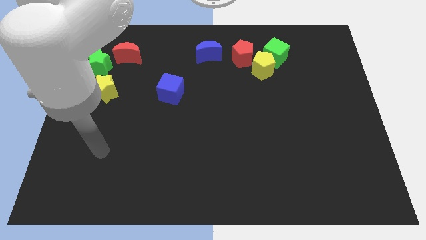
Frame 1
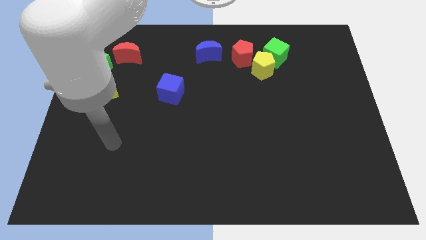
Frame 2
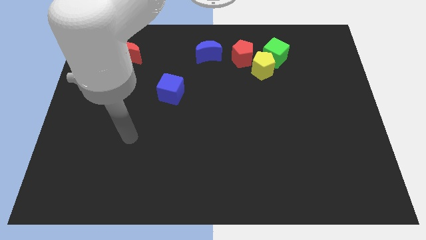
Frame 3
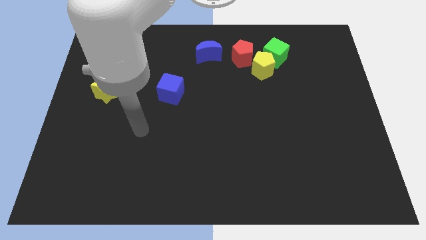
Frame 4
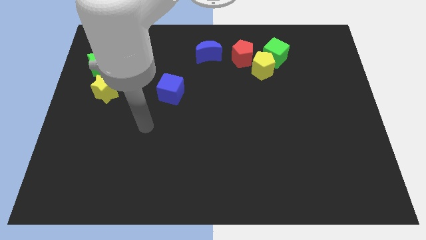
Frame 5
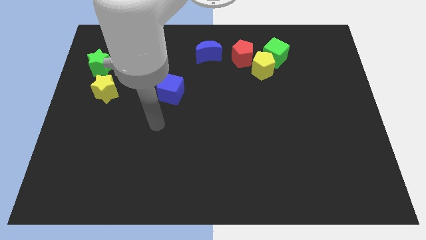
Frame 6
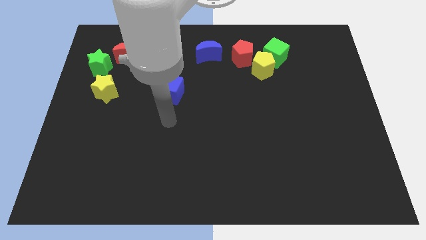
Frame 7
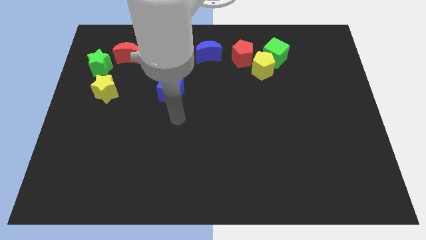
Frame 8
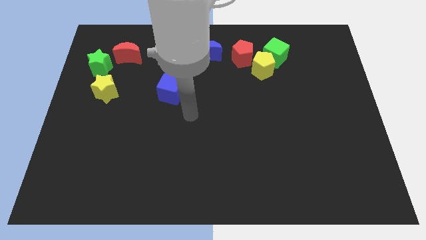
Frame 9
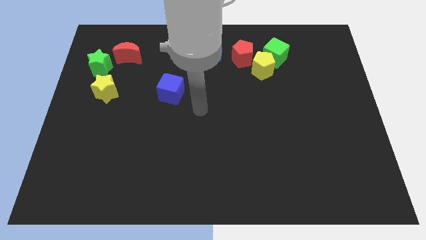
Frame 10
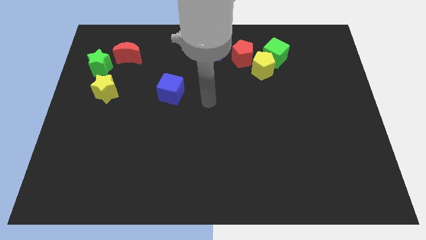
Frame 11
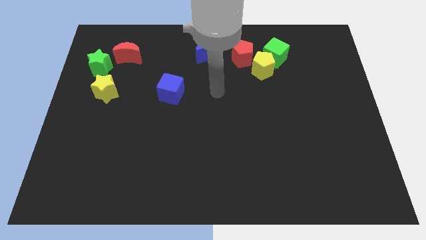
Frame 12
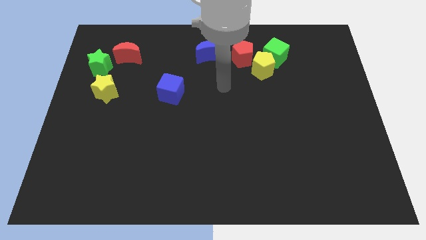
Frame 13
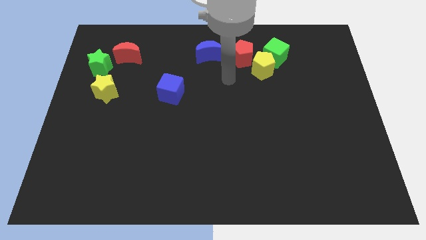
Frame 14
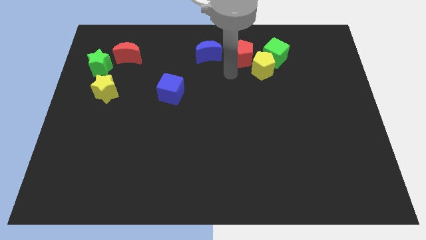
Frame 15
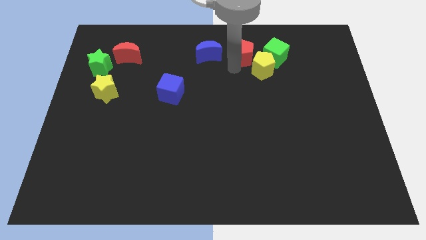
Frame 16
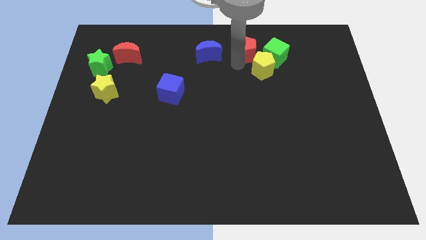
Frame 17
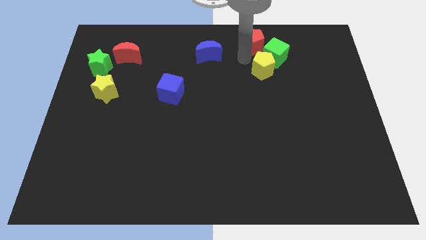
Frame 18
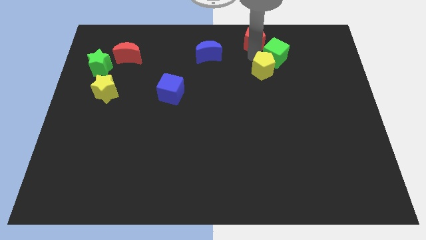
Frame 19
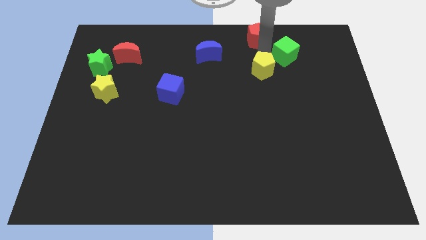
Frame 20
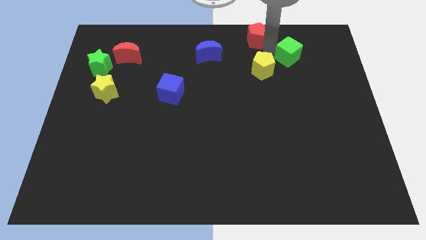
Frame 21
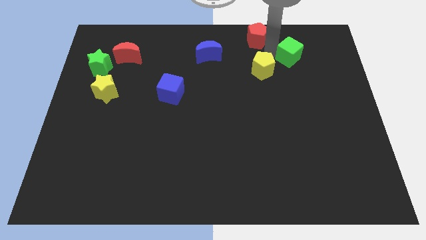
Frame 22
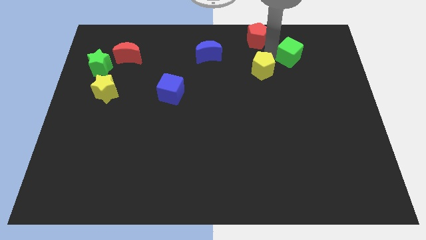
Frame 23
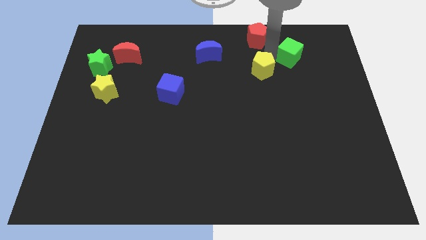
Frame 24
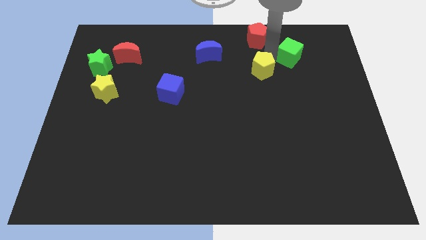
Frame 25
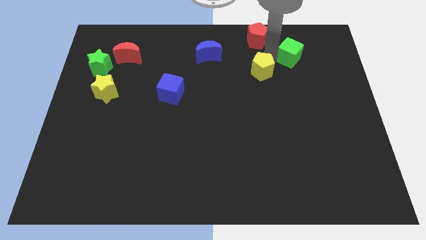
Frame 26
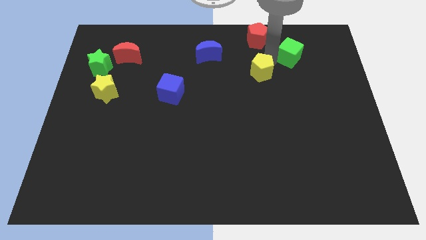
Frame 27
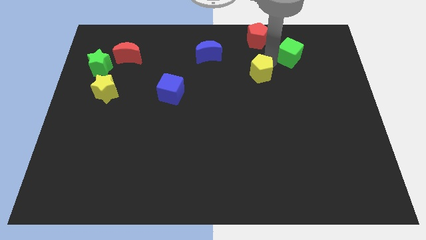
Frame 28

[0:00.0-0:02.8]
pull the yellow pentagon apart from the green cube and red pentagon

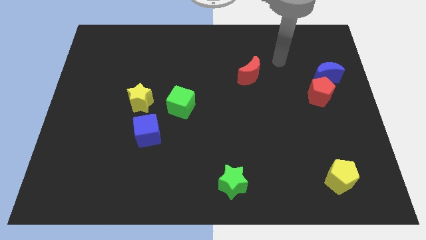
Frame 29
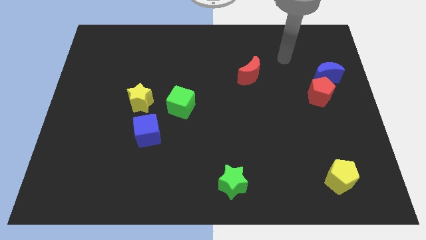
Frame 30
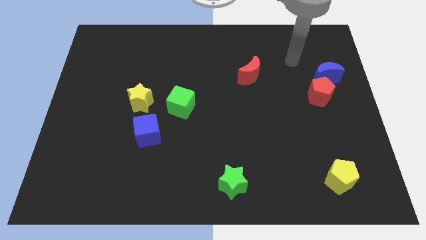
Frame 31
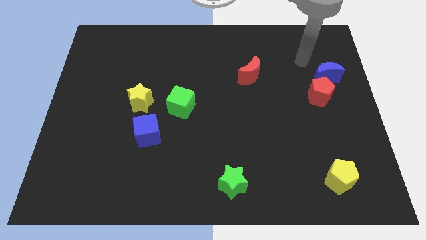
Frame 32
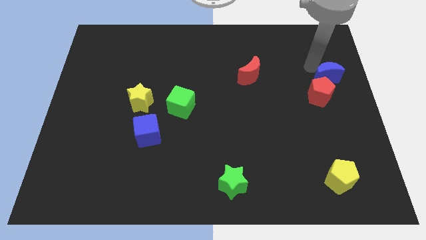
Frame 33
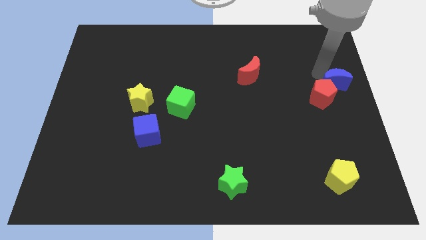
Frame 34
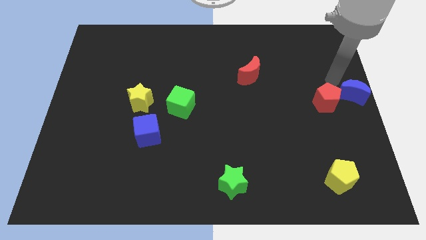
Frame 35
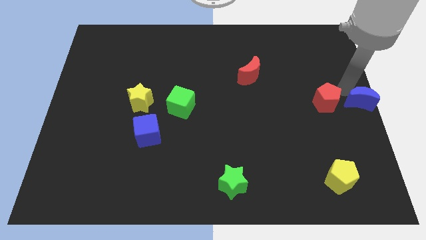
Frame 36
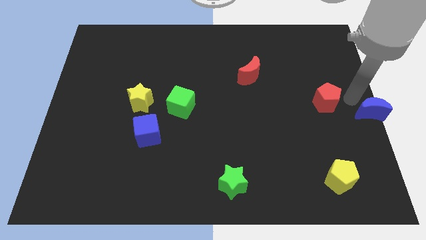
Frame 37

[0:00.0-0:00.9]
pull the red pentagon apart from the blue moon

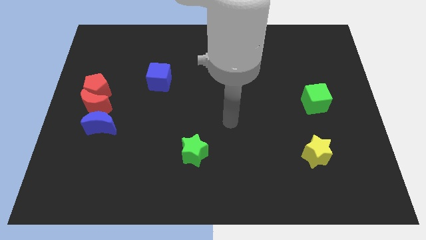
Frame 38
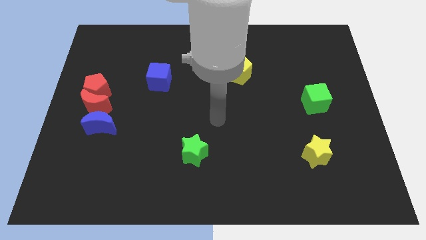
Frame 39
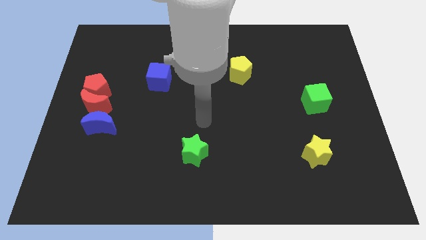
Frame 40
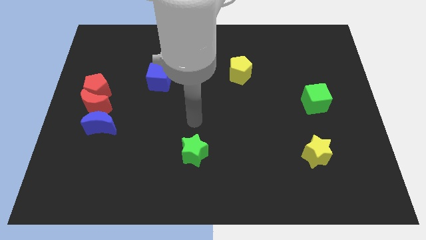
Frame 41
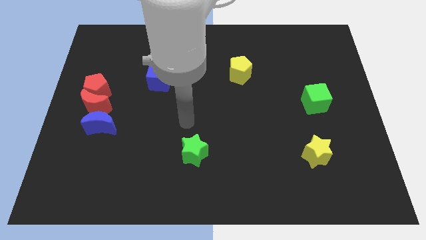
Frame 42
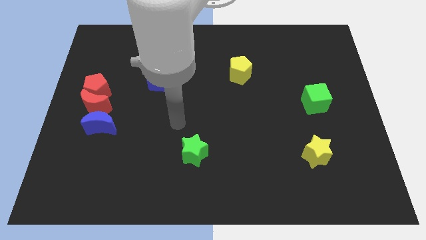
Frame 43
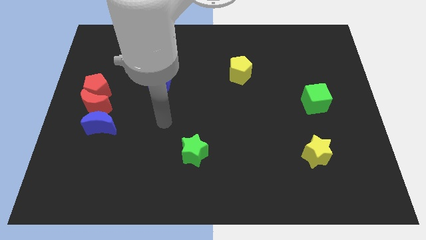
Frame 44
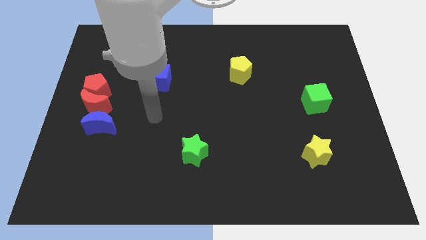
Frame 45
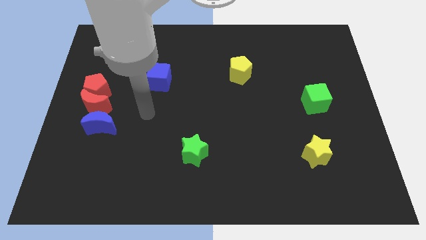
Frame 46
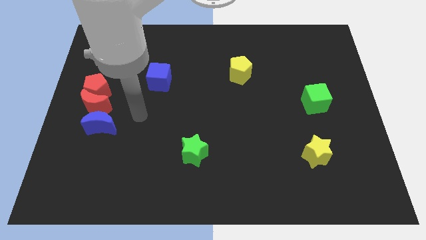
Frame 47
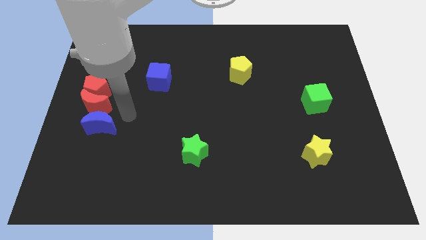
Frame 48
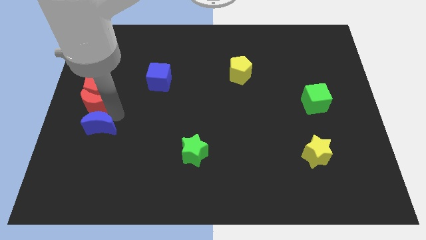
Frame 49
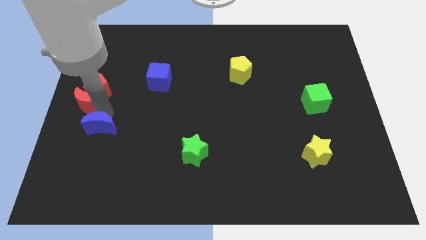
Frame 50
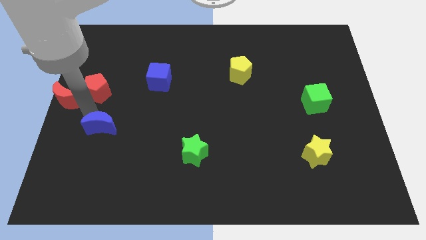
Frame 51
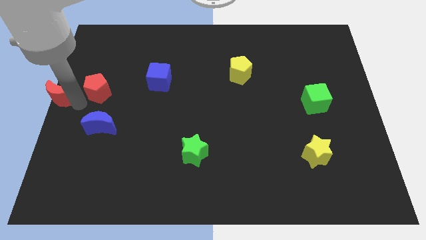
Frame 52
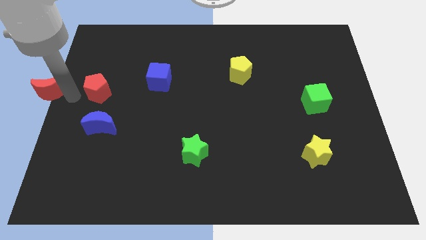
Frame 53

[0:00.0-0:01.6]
separate the red pentagon from the red moon

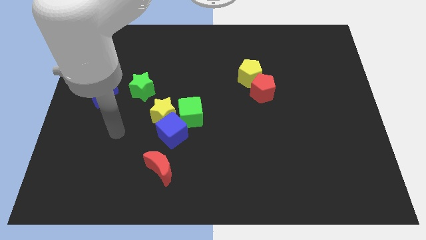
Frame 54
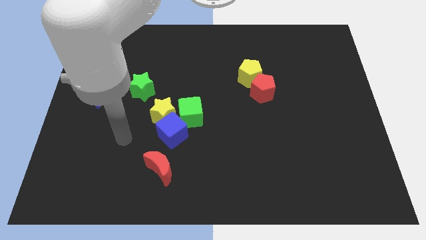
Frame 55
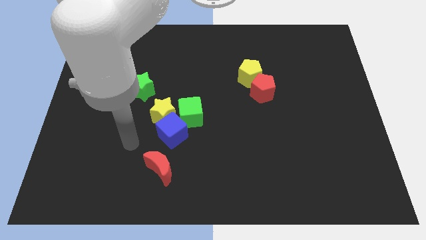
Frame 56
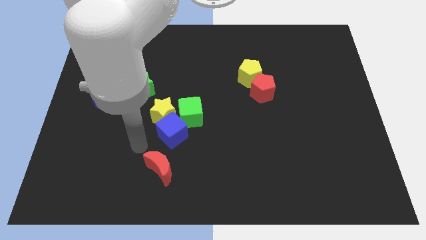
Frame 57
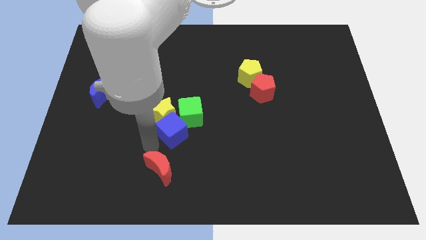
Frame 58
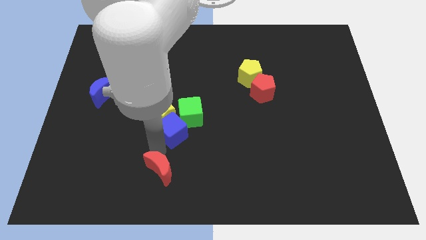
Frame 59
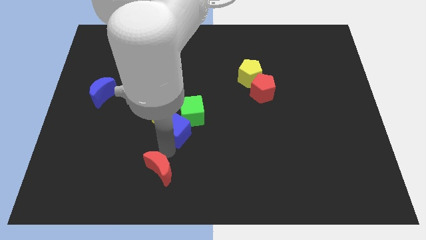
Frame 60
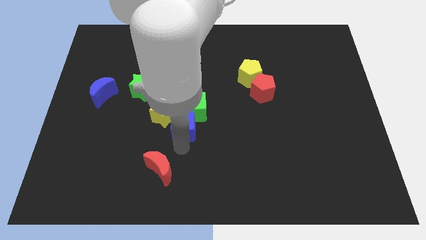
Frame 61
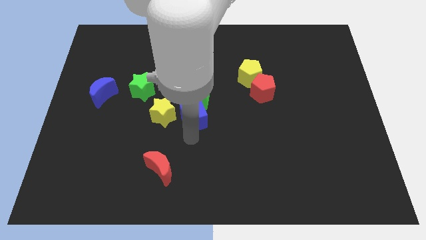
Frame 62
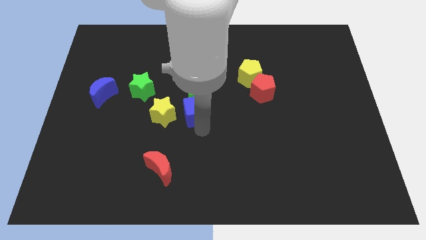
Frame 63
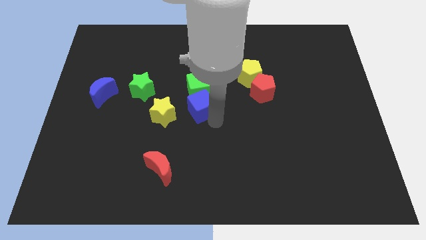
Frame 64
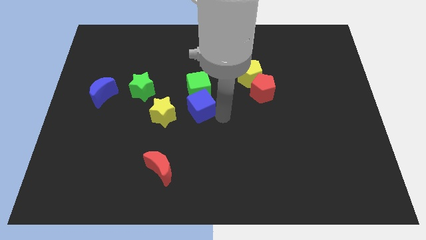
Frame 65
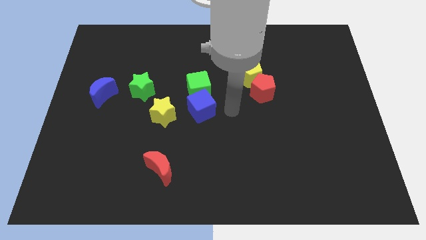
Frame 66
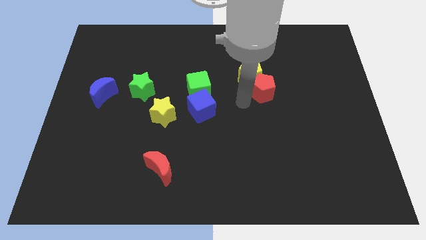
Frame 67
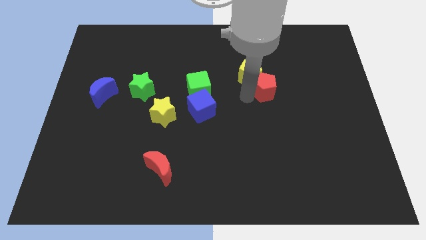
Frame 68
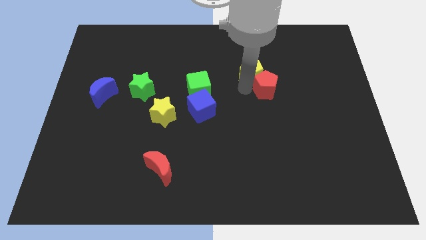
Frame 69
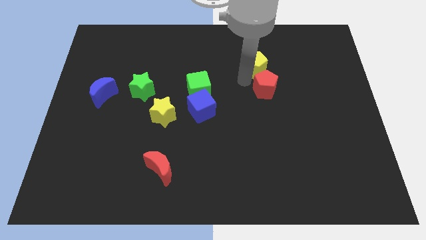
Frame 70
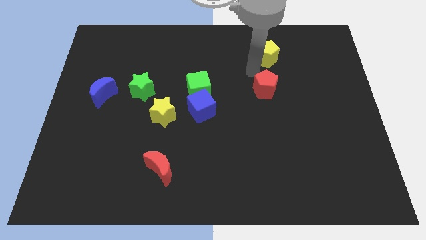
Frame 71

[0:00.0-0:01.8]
move the red pentagon away from the yellow pentagon

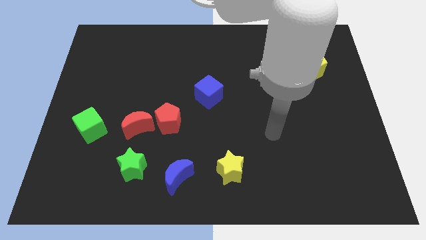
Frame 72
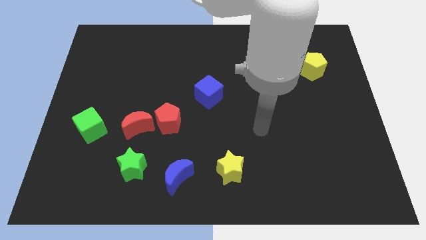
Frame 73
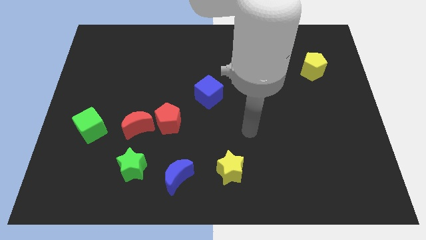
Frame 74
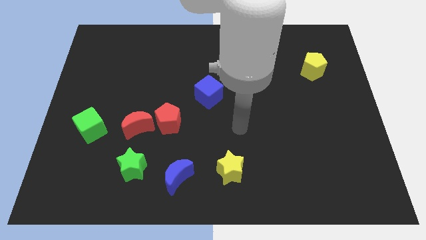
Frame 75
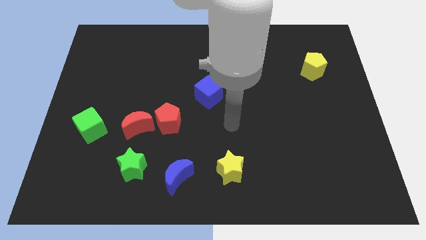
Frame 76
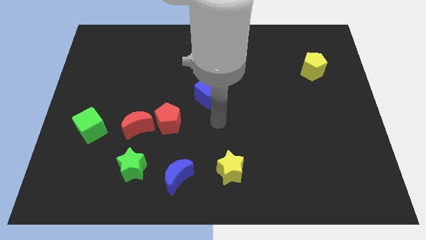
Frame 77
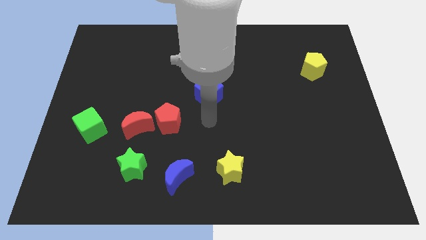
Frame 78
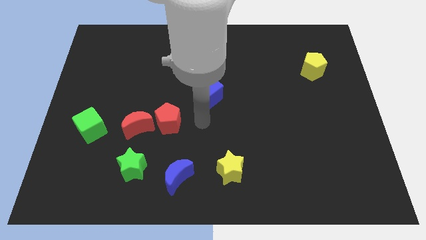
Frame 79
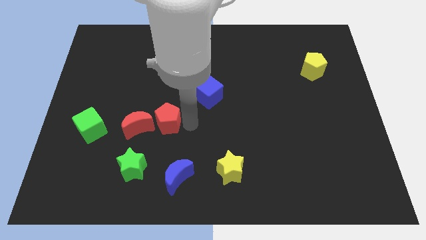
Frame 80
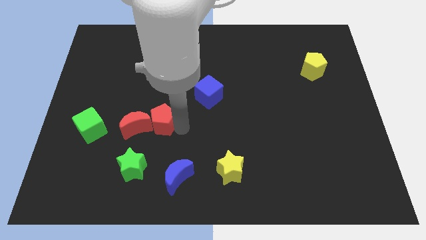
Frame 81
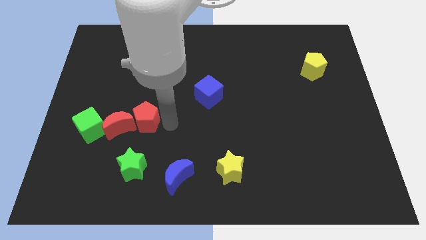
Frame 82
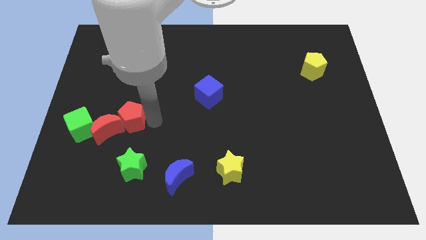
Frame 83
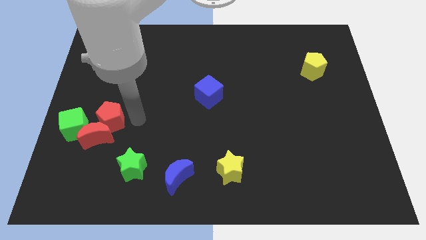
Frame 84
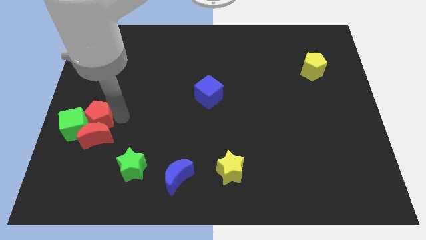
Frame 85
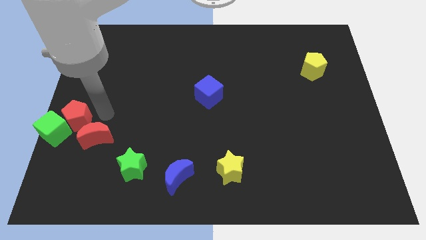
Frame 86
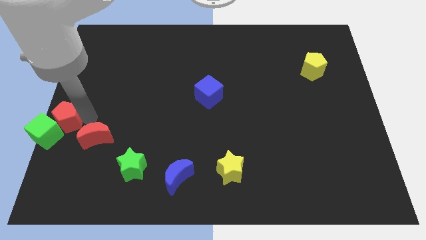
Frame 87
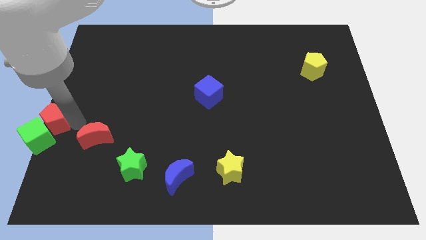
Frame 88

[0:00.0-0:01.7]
pull the red moon apart from the red pentagon

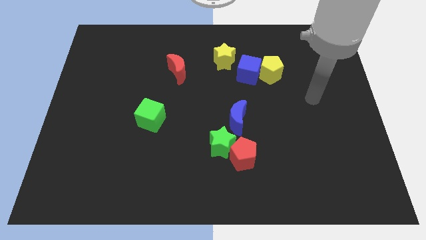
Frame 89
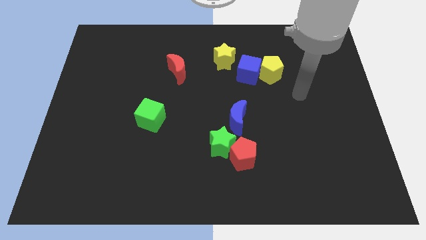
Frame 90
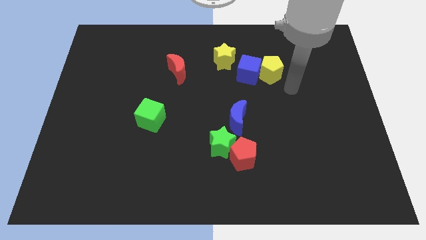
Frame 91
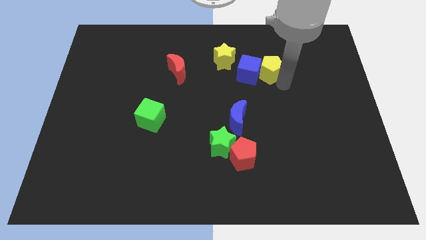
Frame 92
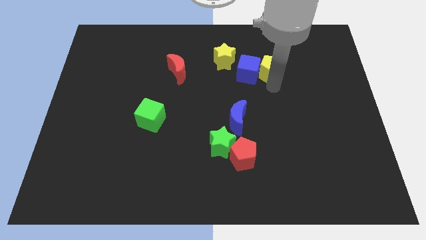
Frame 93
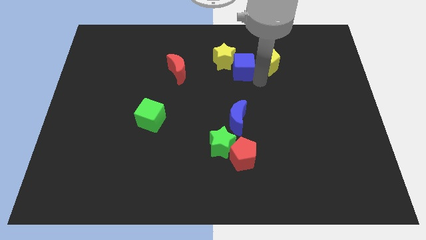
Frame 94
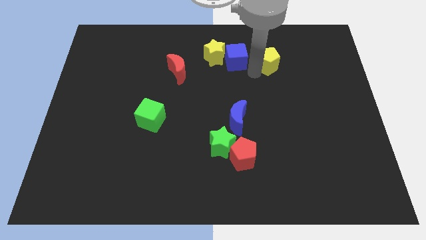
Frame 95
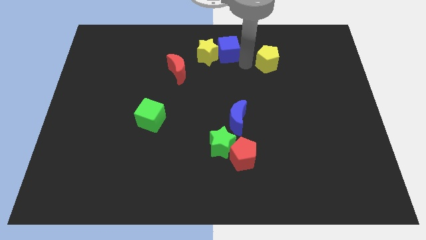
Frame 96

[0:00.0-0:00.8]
separate the yellow pentagon from the blue cube
